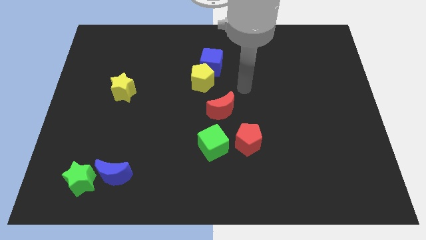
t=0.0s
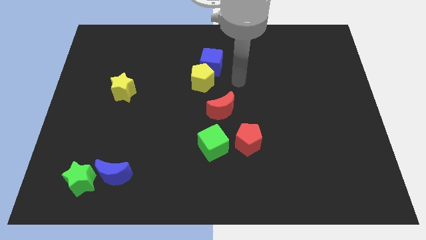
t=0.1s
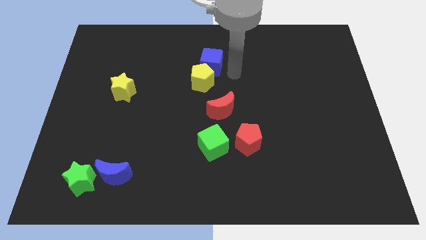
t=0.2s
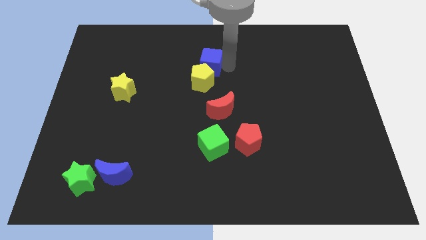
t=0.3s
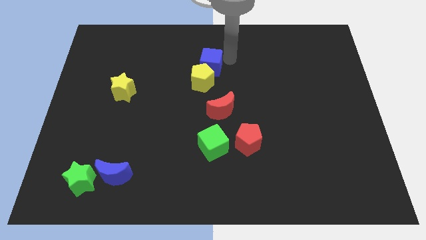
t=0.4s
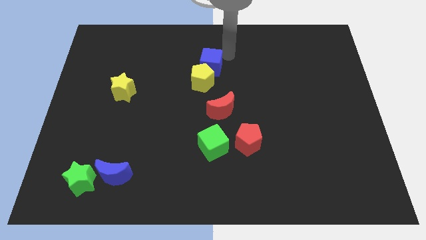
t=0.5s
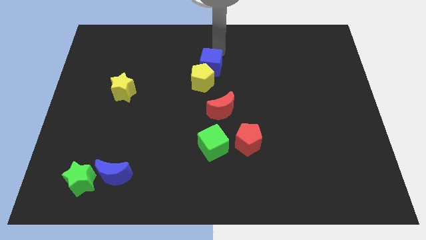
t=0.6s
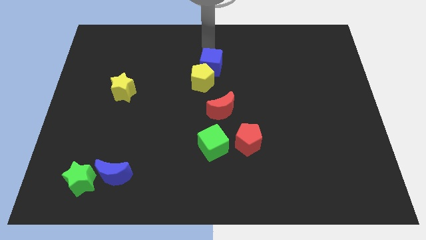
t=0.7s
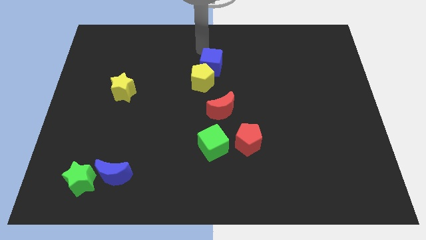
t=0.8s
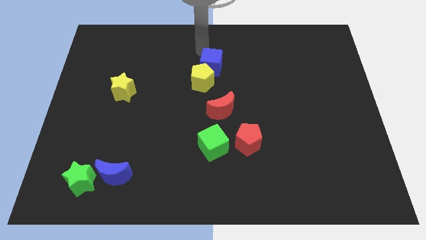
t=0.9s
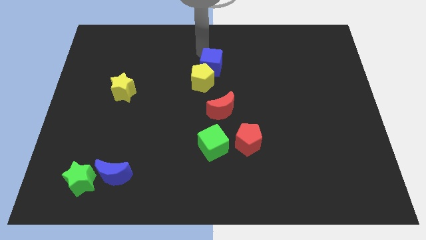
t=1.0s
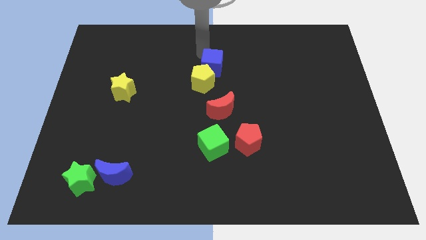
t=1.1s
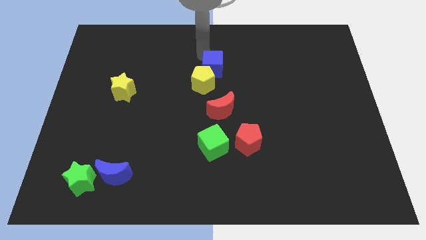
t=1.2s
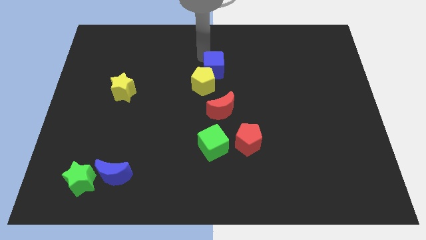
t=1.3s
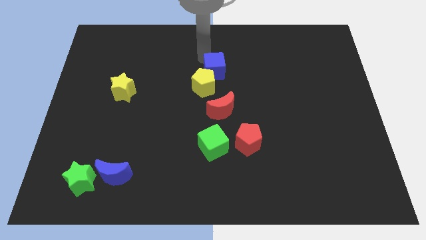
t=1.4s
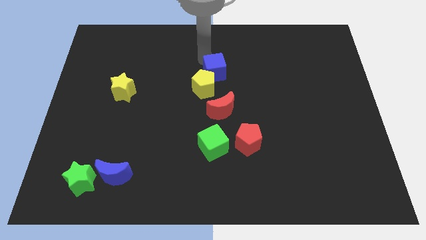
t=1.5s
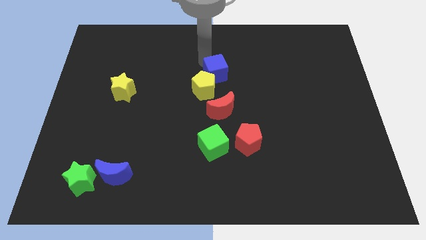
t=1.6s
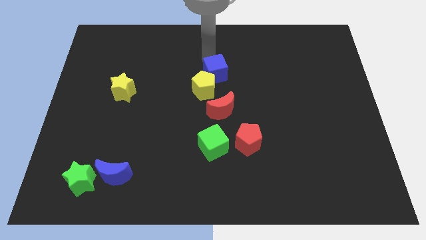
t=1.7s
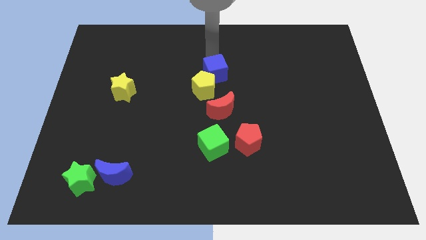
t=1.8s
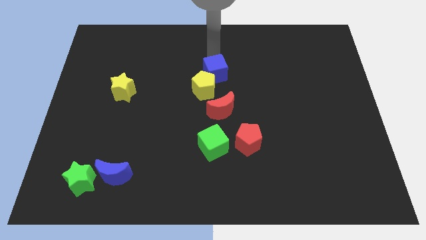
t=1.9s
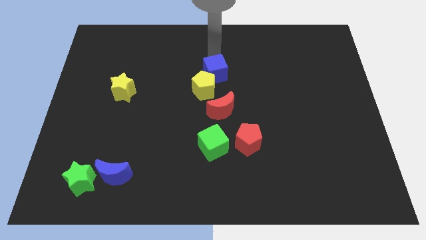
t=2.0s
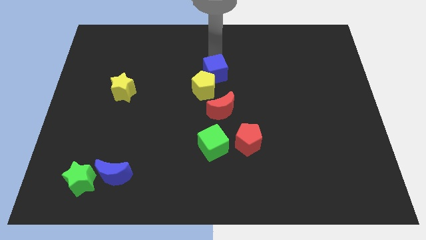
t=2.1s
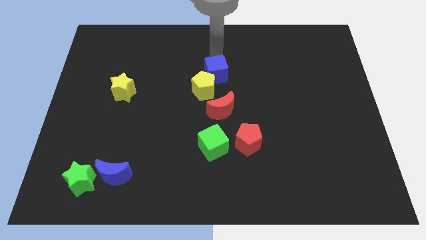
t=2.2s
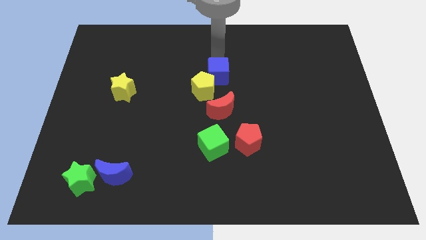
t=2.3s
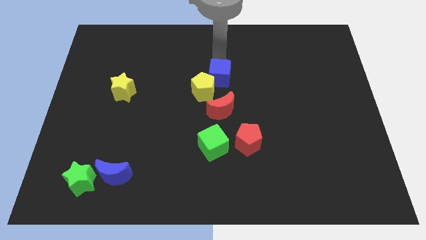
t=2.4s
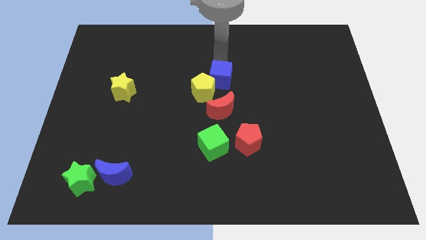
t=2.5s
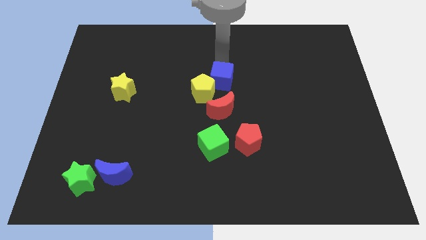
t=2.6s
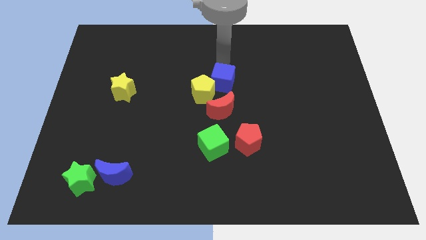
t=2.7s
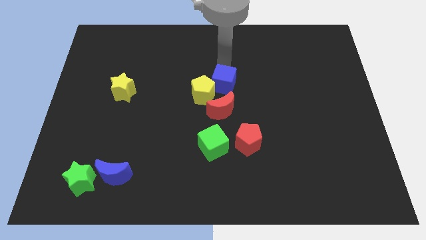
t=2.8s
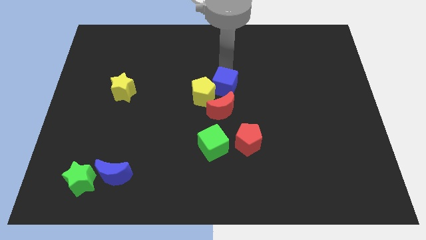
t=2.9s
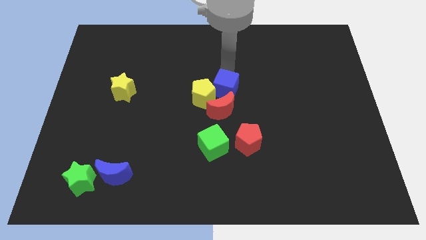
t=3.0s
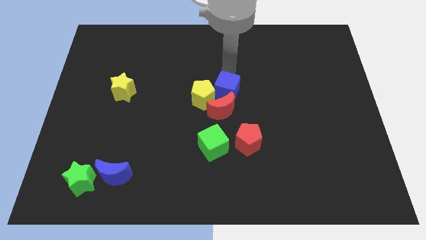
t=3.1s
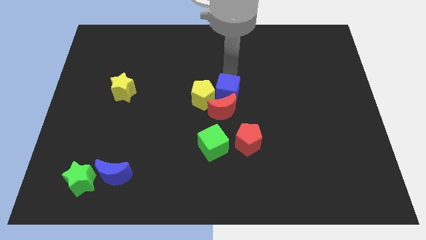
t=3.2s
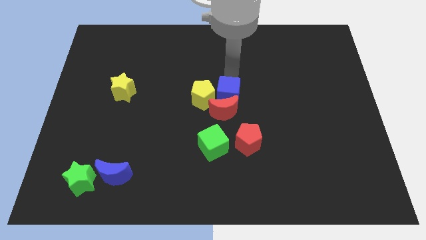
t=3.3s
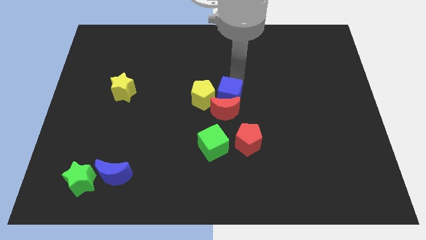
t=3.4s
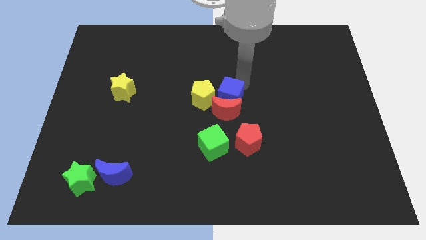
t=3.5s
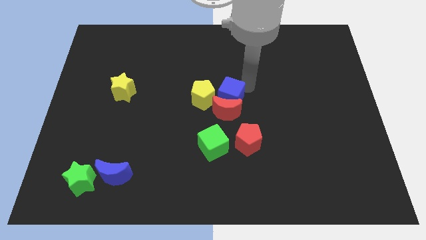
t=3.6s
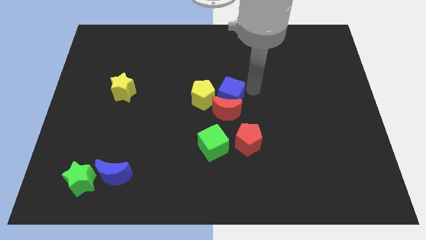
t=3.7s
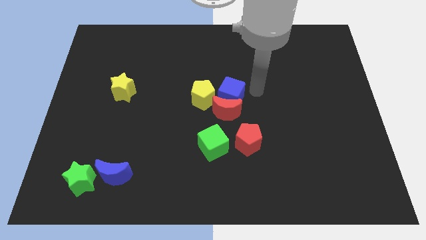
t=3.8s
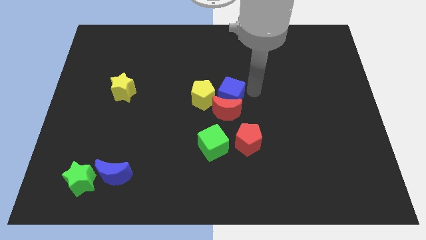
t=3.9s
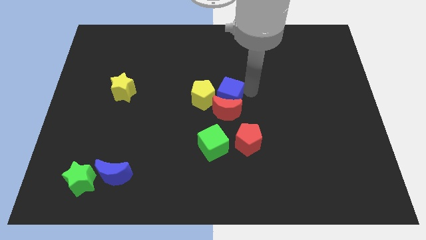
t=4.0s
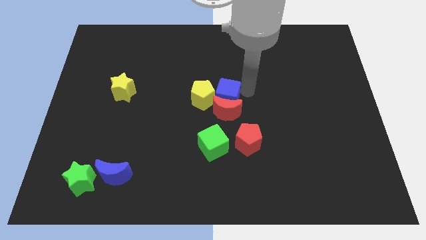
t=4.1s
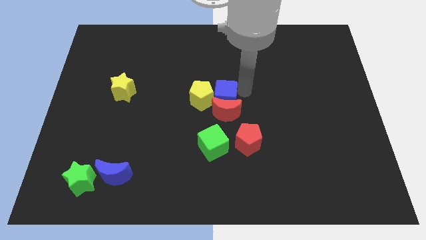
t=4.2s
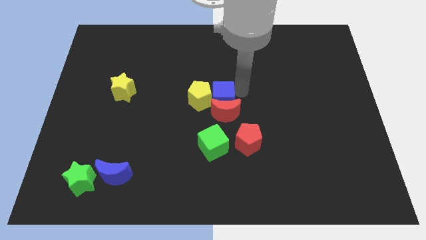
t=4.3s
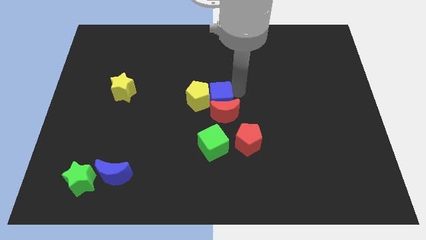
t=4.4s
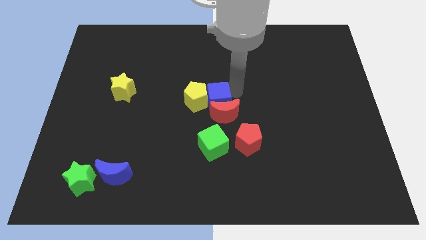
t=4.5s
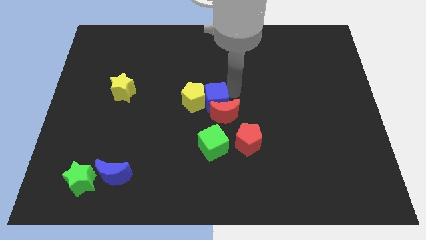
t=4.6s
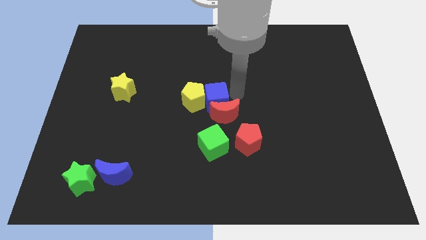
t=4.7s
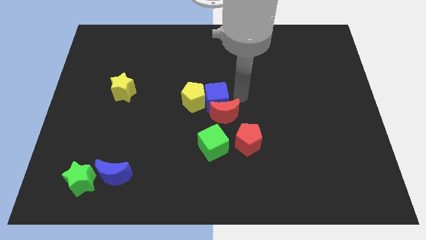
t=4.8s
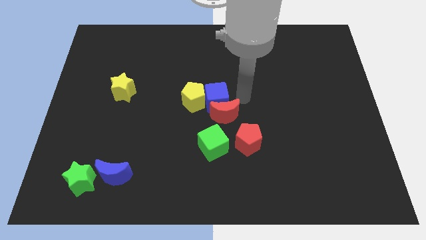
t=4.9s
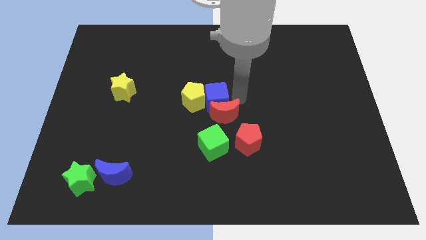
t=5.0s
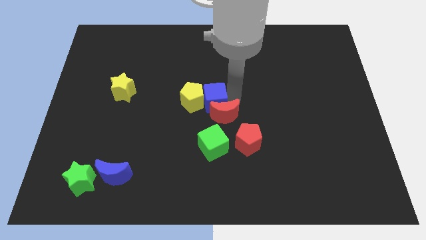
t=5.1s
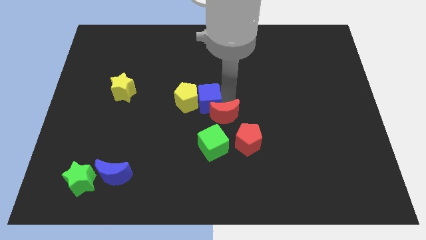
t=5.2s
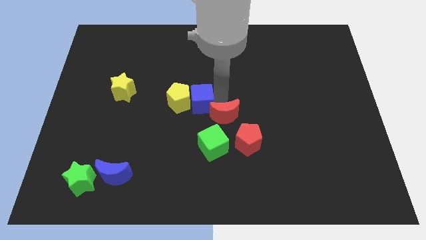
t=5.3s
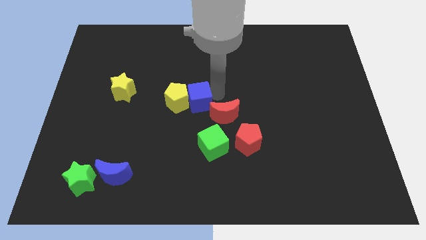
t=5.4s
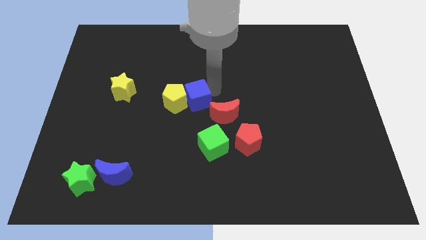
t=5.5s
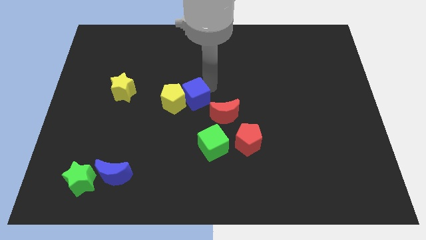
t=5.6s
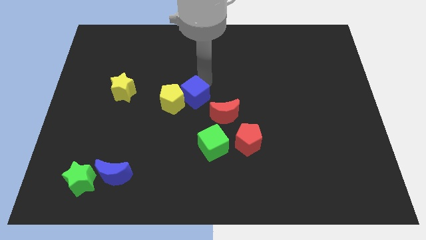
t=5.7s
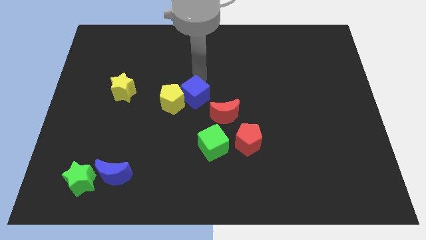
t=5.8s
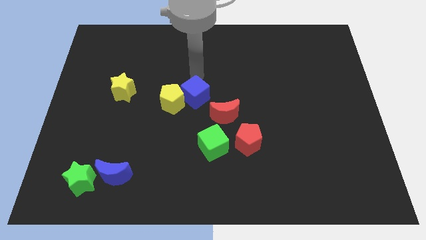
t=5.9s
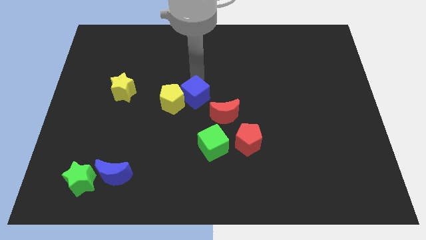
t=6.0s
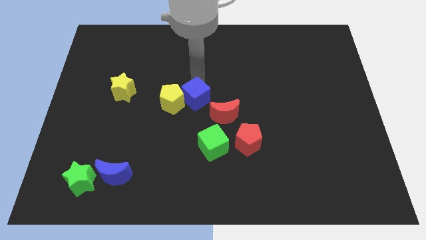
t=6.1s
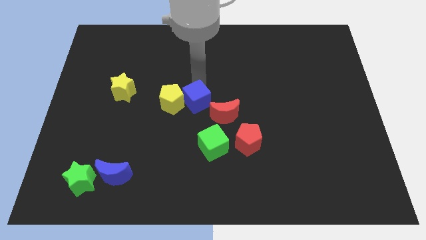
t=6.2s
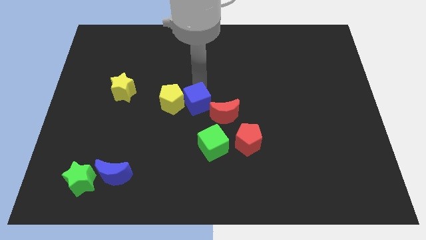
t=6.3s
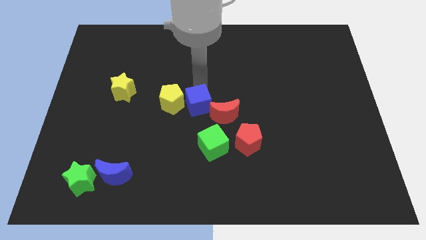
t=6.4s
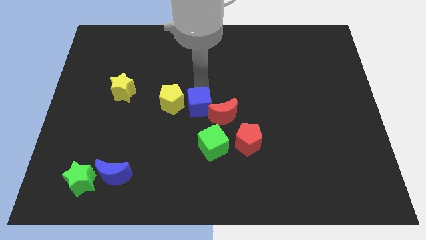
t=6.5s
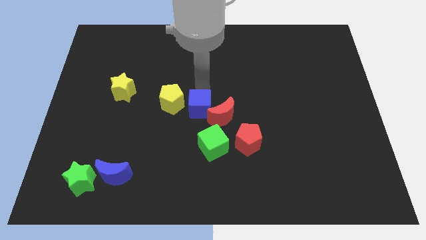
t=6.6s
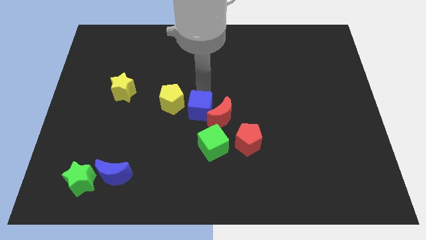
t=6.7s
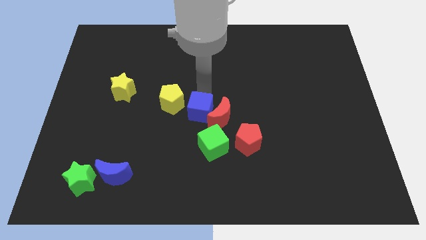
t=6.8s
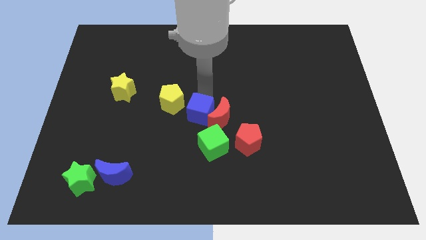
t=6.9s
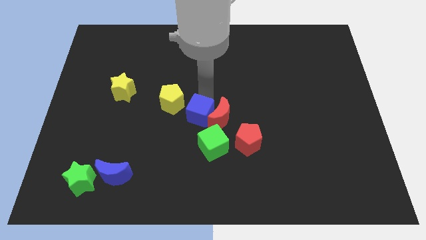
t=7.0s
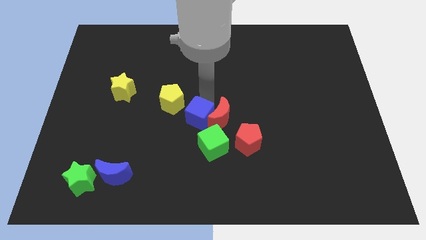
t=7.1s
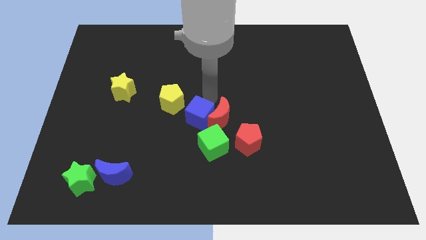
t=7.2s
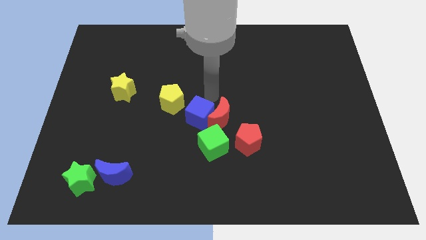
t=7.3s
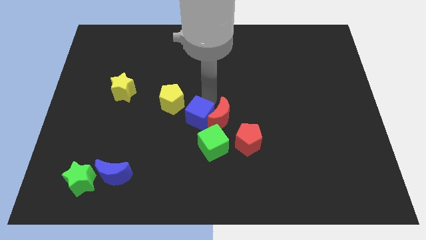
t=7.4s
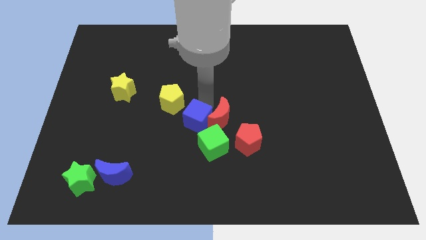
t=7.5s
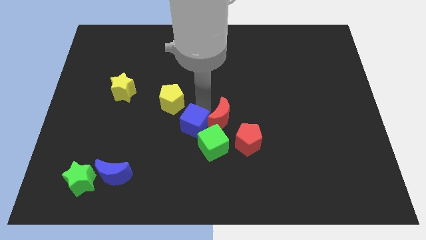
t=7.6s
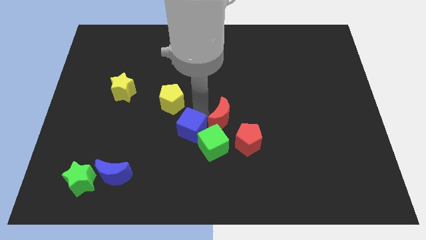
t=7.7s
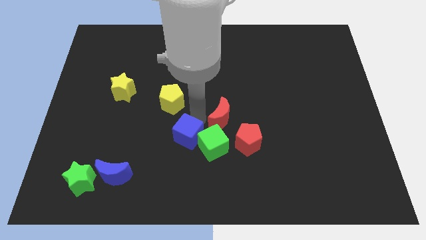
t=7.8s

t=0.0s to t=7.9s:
move the blue cube down
